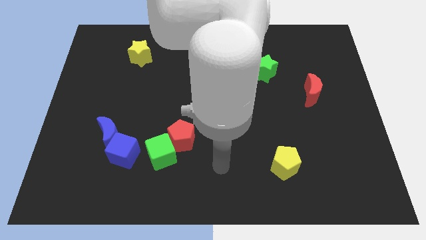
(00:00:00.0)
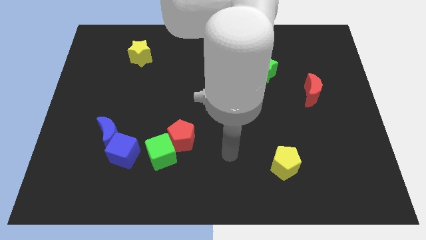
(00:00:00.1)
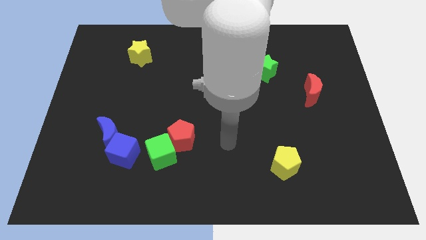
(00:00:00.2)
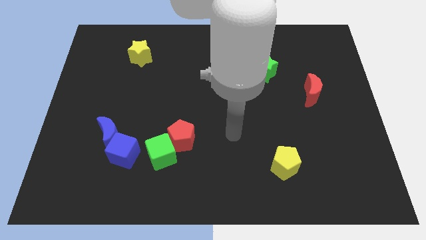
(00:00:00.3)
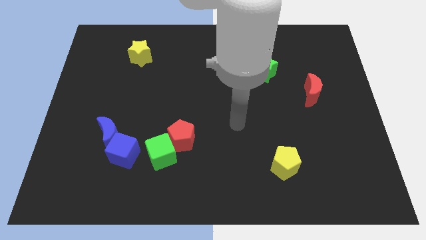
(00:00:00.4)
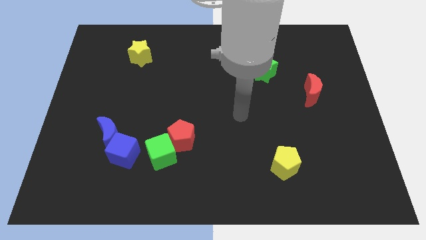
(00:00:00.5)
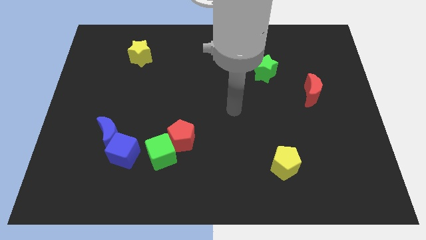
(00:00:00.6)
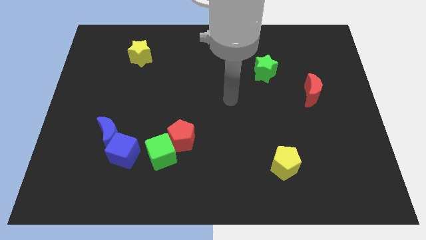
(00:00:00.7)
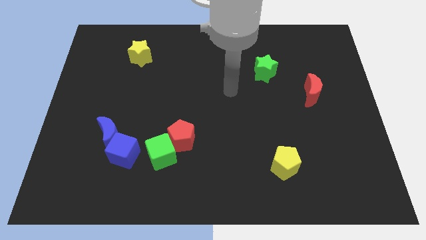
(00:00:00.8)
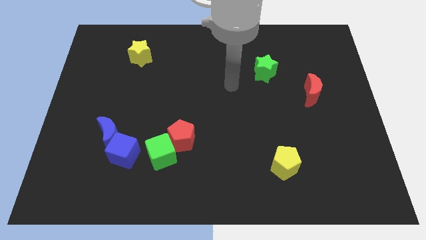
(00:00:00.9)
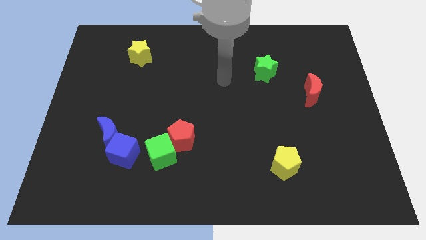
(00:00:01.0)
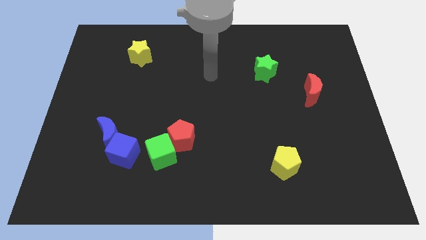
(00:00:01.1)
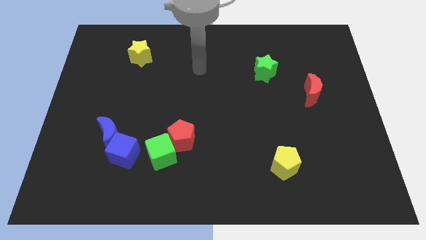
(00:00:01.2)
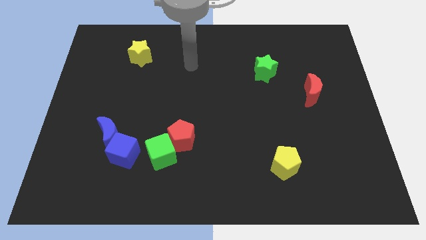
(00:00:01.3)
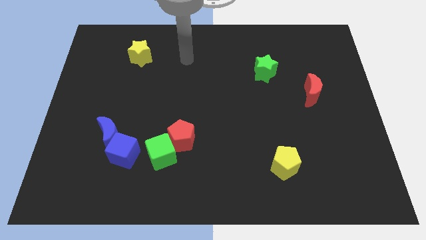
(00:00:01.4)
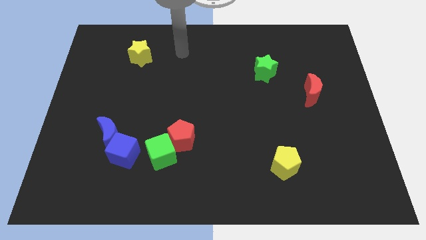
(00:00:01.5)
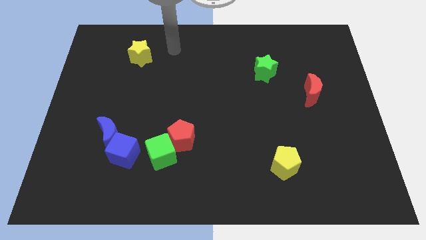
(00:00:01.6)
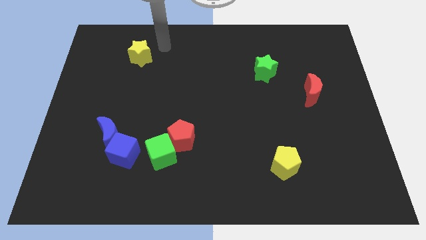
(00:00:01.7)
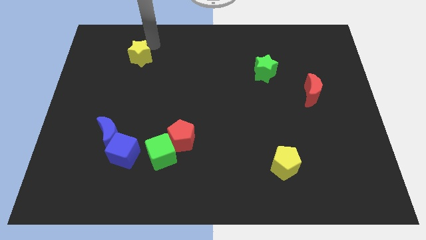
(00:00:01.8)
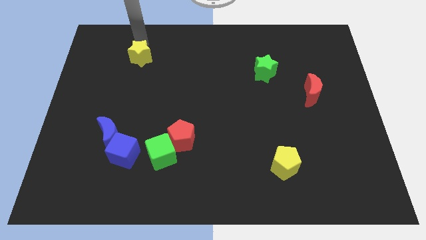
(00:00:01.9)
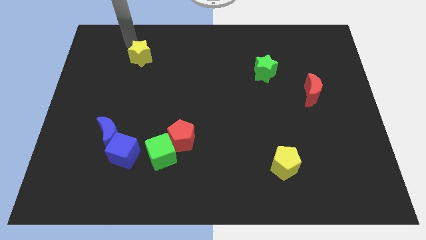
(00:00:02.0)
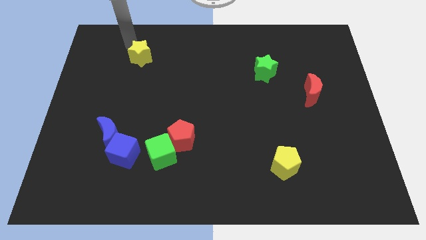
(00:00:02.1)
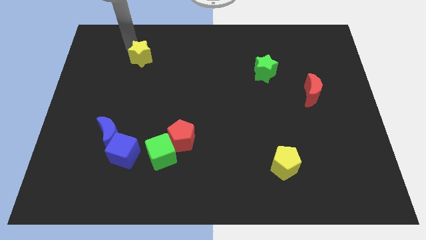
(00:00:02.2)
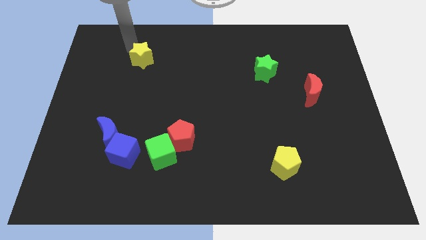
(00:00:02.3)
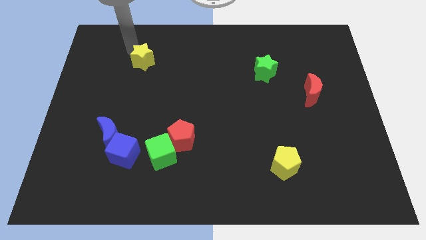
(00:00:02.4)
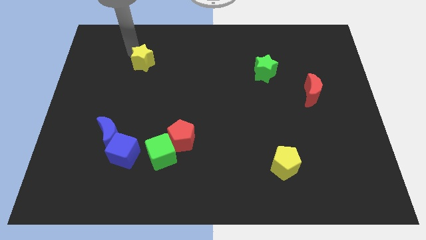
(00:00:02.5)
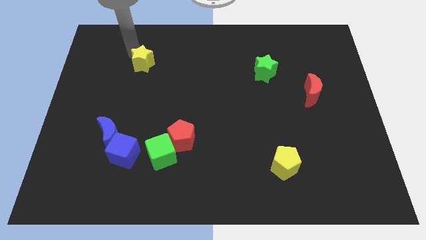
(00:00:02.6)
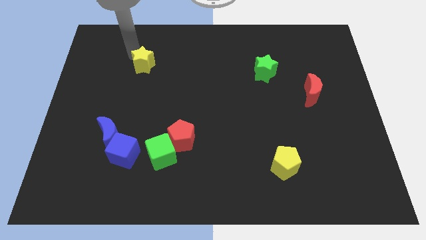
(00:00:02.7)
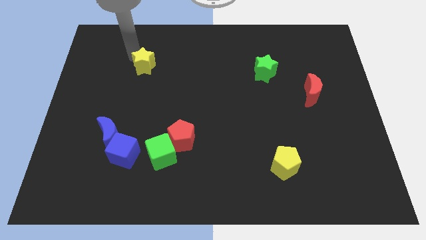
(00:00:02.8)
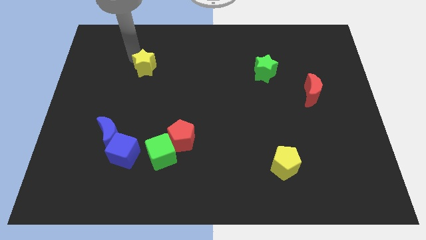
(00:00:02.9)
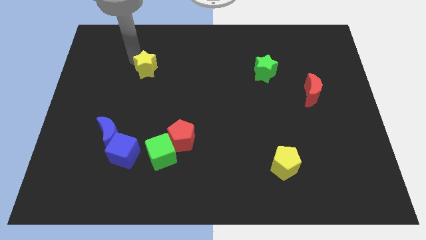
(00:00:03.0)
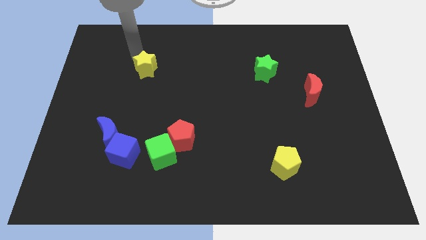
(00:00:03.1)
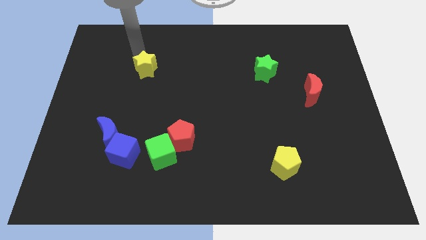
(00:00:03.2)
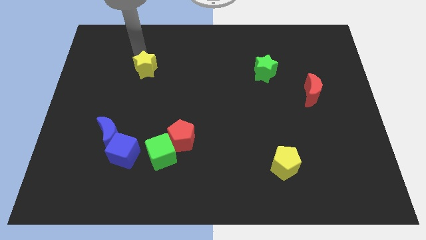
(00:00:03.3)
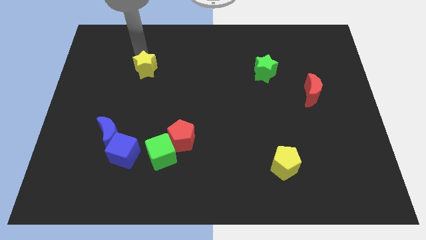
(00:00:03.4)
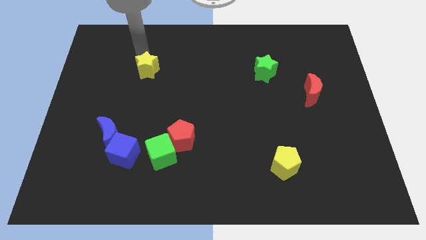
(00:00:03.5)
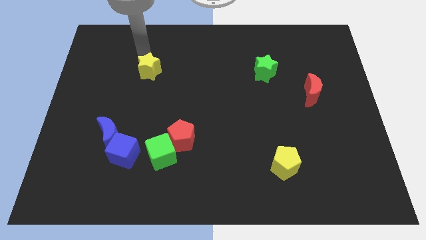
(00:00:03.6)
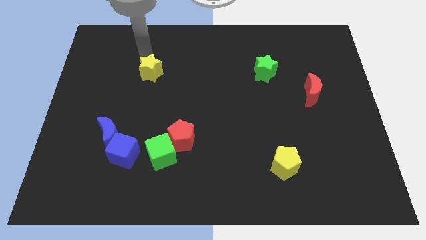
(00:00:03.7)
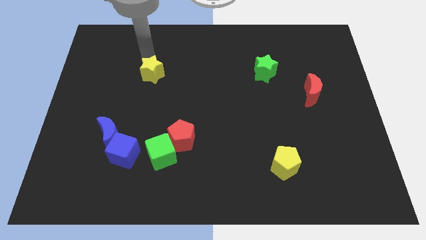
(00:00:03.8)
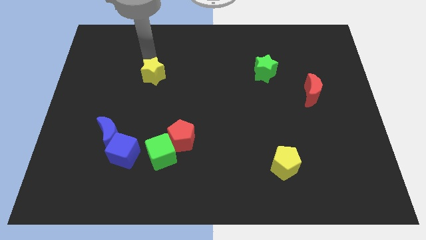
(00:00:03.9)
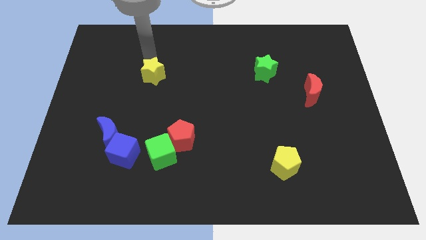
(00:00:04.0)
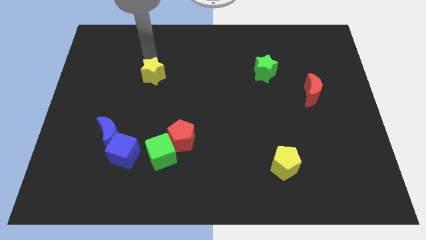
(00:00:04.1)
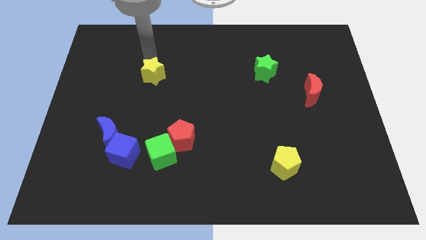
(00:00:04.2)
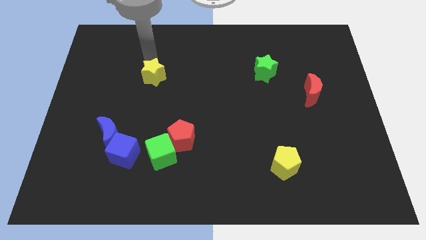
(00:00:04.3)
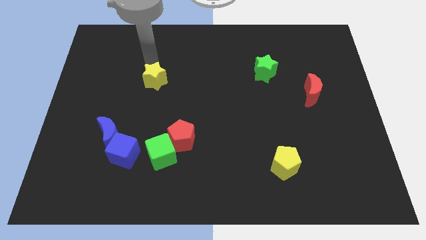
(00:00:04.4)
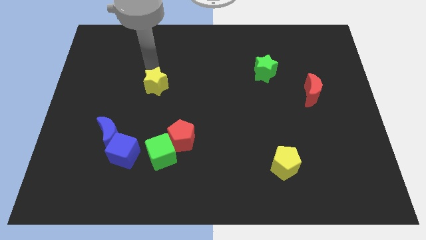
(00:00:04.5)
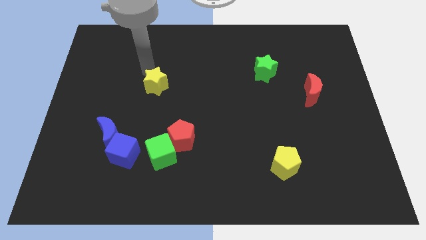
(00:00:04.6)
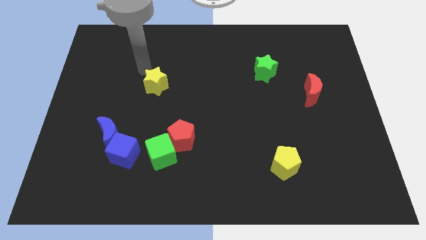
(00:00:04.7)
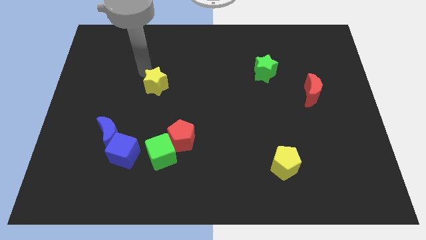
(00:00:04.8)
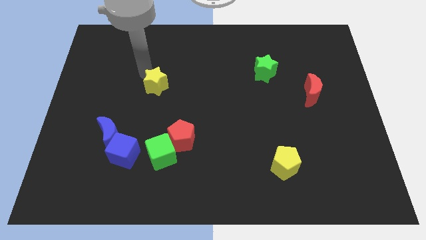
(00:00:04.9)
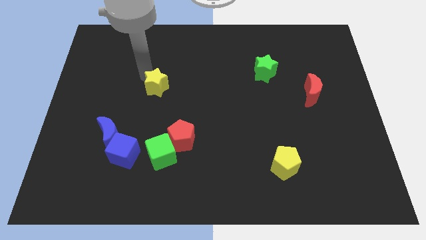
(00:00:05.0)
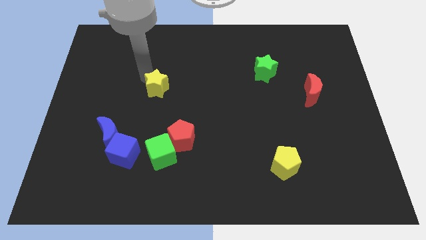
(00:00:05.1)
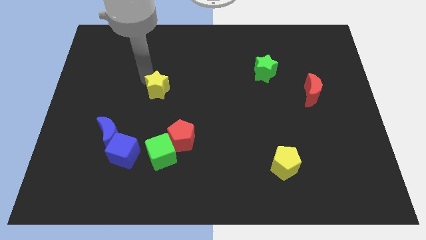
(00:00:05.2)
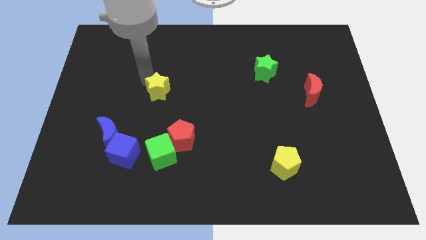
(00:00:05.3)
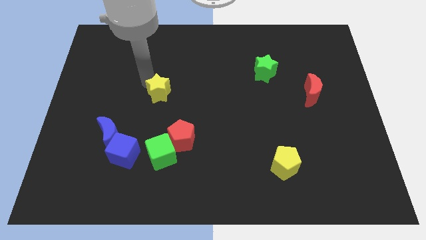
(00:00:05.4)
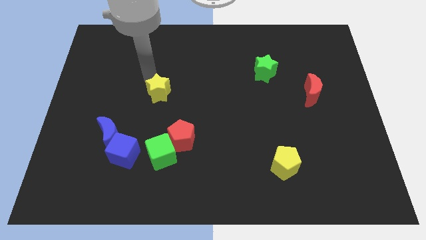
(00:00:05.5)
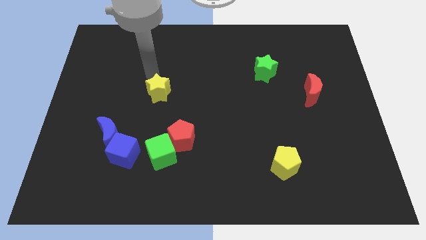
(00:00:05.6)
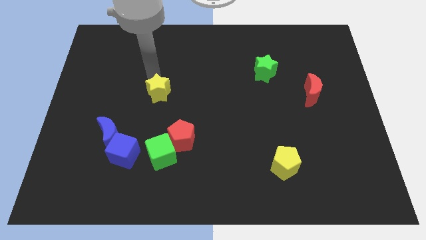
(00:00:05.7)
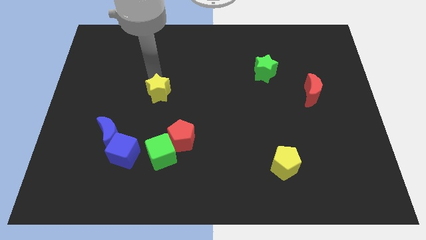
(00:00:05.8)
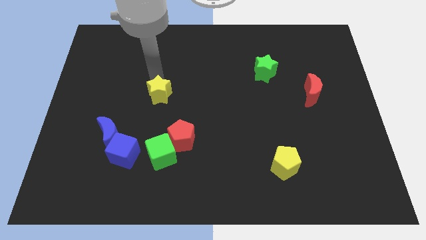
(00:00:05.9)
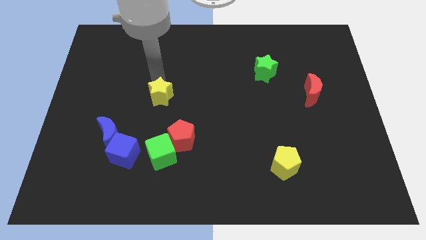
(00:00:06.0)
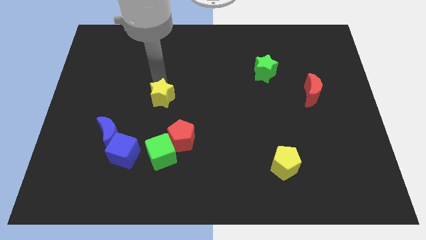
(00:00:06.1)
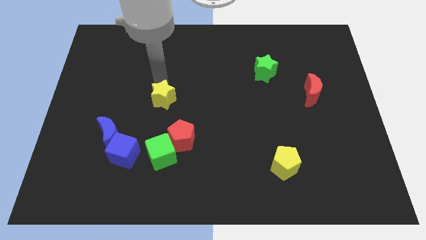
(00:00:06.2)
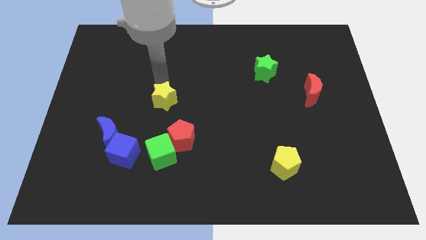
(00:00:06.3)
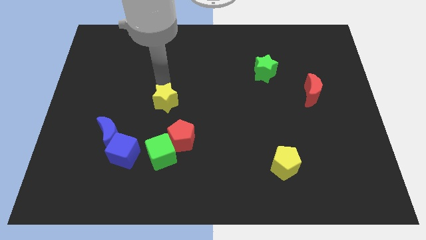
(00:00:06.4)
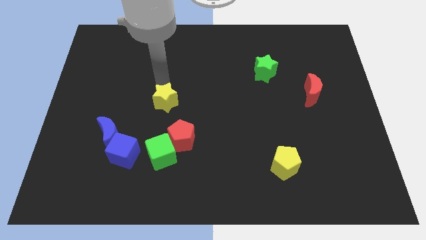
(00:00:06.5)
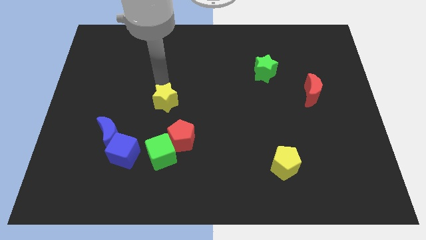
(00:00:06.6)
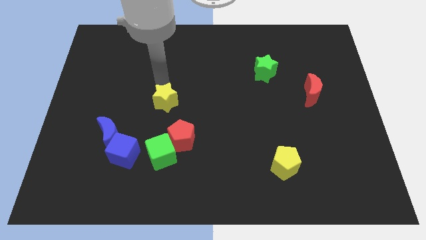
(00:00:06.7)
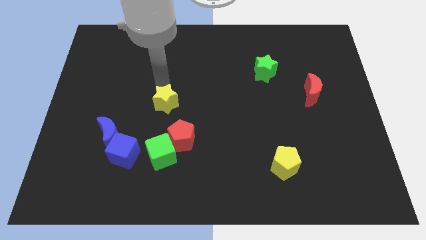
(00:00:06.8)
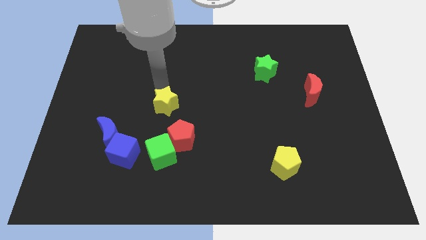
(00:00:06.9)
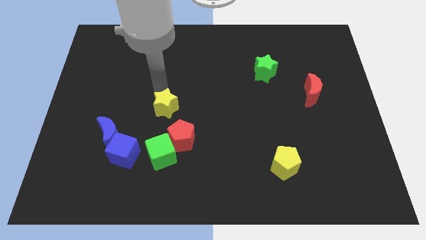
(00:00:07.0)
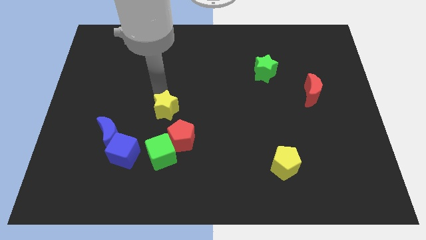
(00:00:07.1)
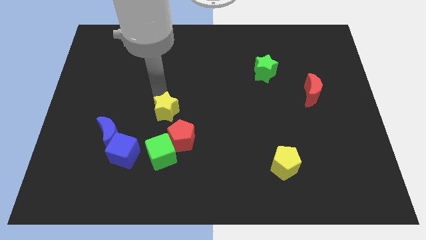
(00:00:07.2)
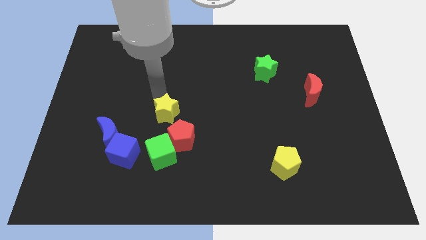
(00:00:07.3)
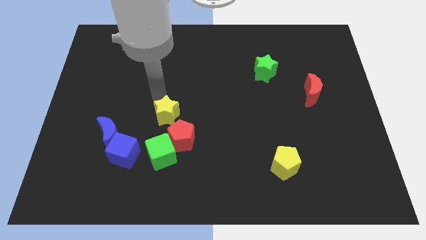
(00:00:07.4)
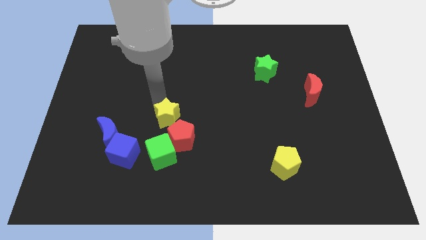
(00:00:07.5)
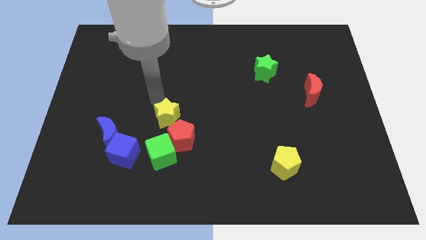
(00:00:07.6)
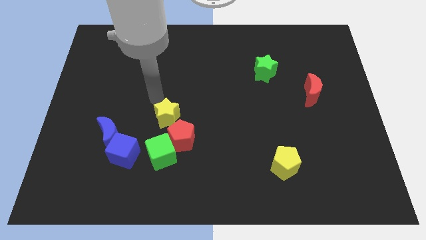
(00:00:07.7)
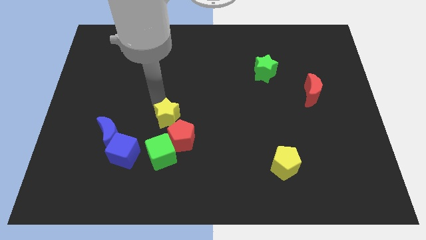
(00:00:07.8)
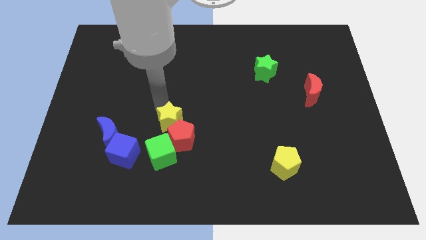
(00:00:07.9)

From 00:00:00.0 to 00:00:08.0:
slide the yellow star next to the red pentagon
